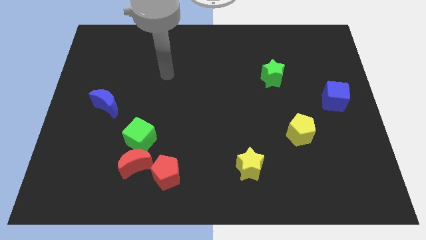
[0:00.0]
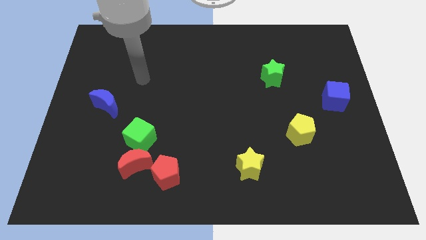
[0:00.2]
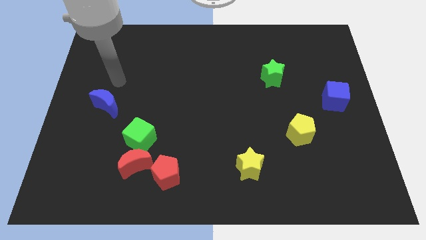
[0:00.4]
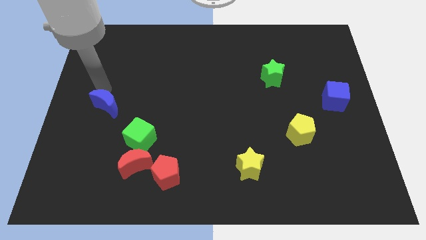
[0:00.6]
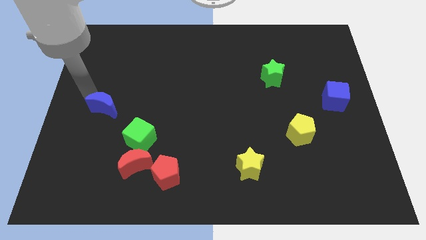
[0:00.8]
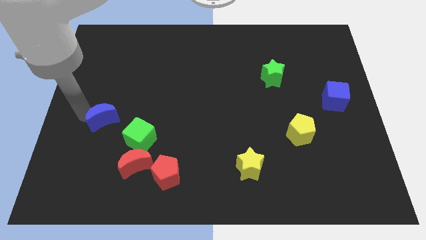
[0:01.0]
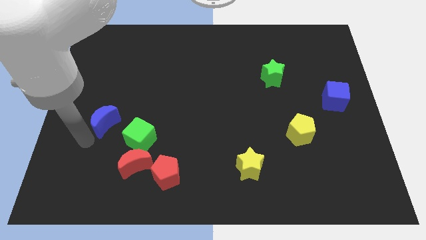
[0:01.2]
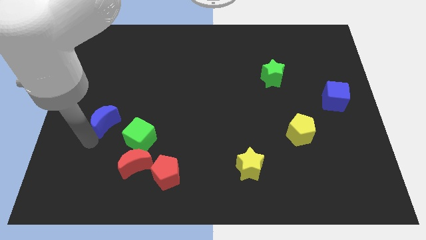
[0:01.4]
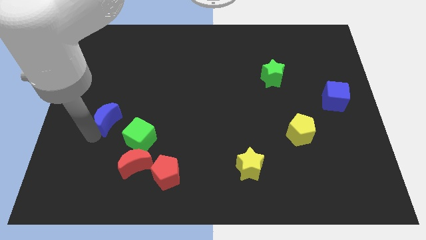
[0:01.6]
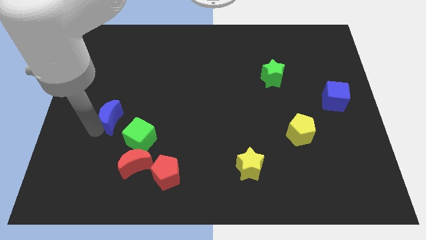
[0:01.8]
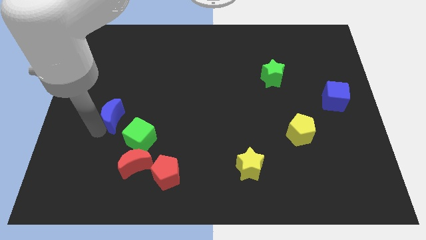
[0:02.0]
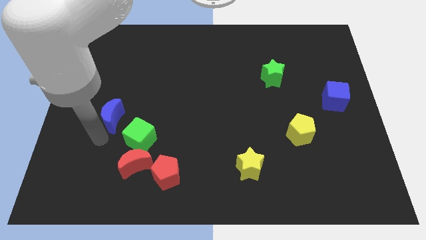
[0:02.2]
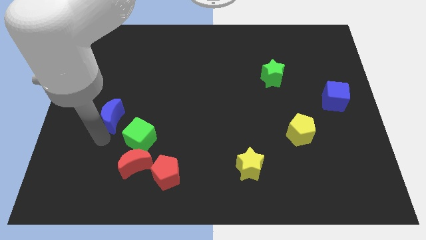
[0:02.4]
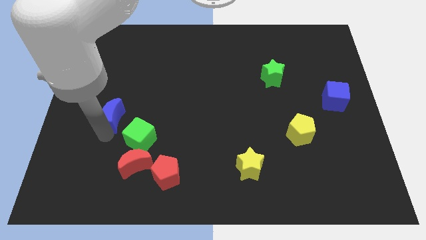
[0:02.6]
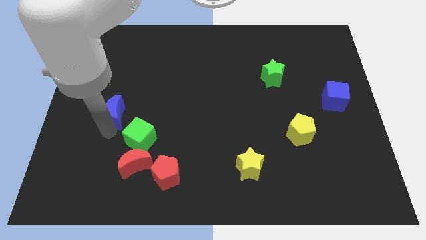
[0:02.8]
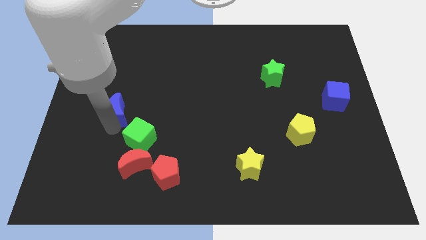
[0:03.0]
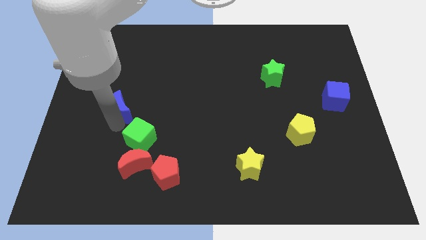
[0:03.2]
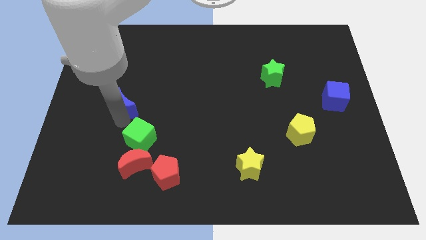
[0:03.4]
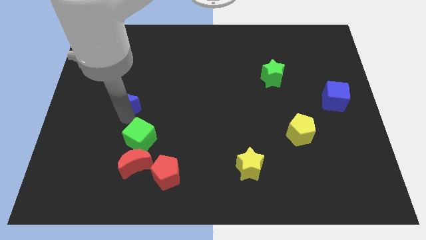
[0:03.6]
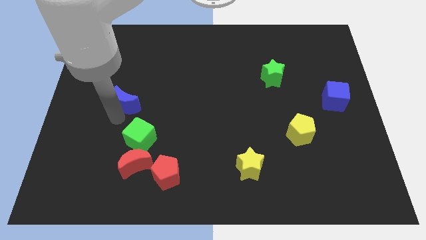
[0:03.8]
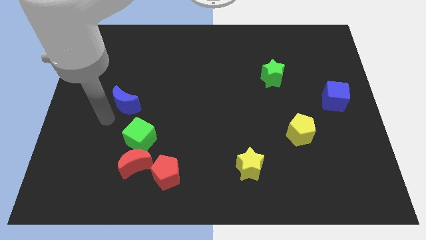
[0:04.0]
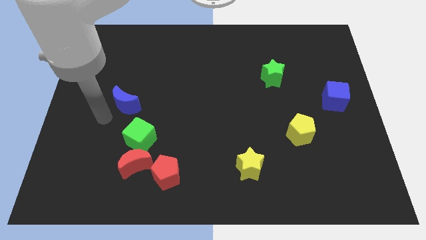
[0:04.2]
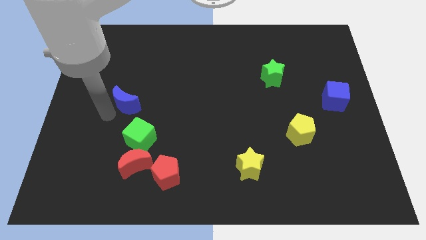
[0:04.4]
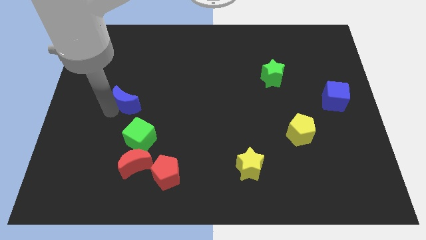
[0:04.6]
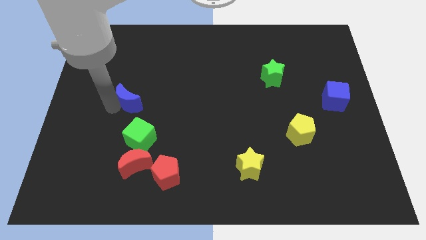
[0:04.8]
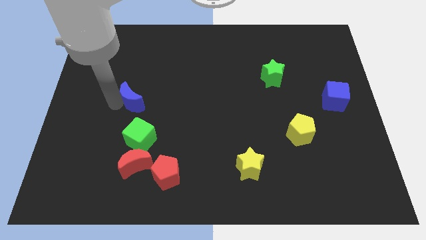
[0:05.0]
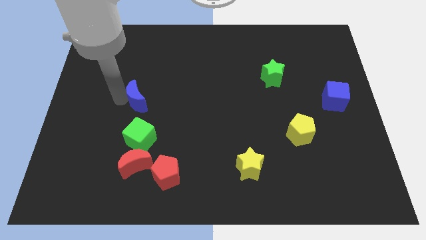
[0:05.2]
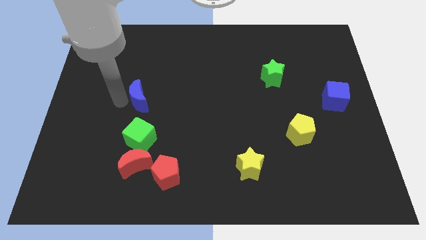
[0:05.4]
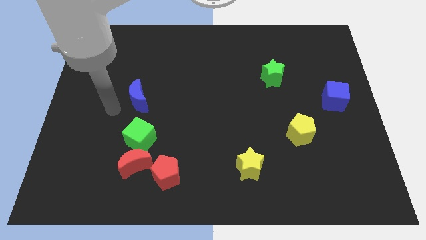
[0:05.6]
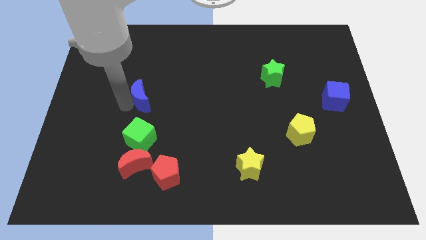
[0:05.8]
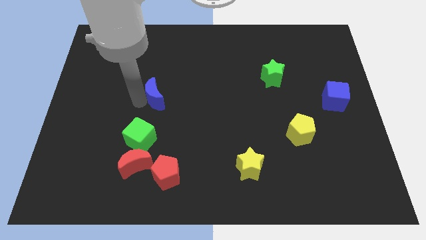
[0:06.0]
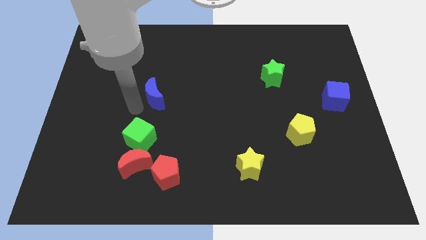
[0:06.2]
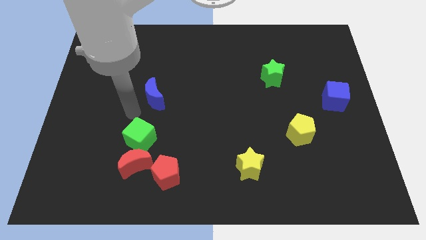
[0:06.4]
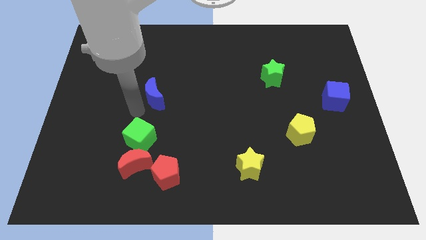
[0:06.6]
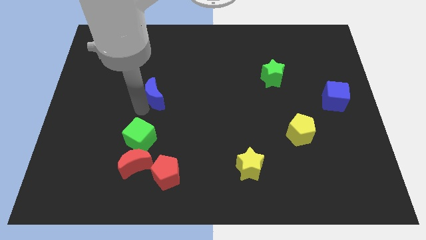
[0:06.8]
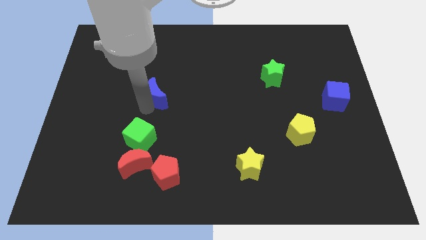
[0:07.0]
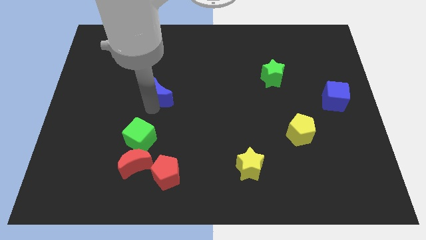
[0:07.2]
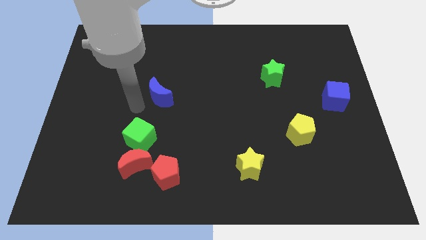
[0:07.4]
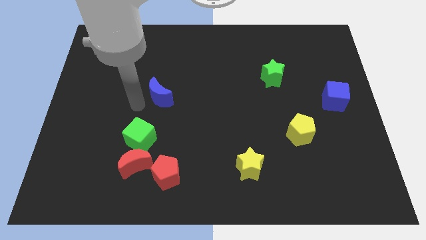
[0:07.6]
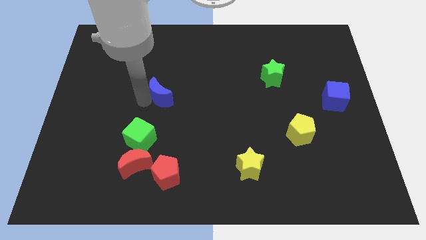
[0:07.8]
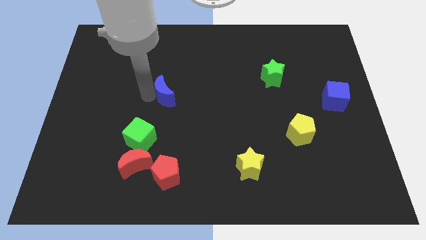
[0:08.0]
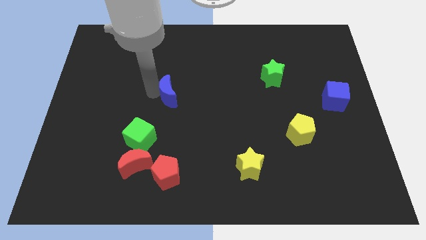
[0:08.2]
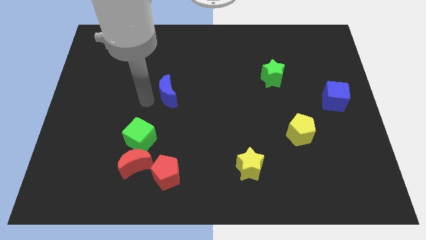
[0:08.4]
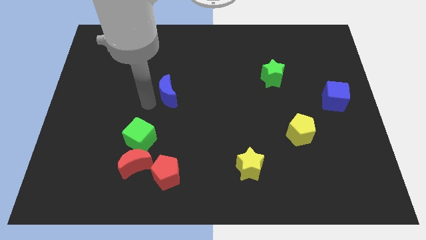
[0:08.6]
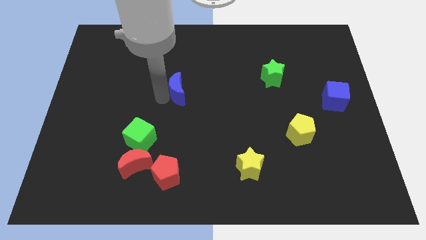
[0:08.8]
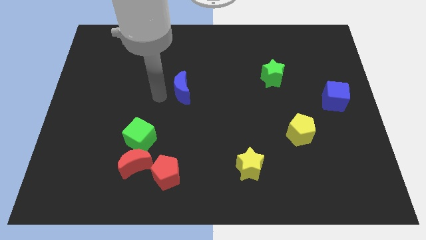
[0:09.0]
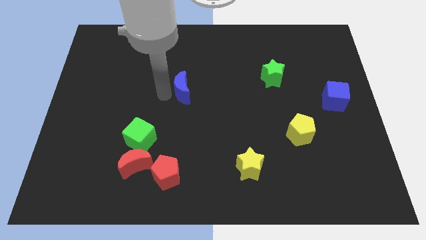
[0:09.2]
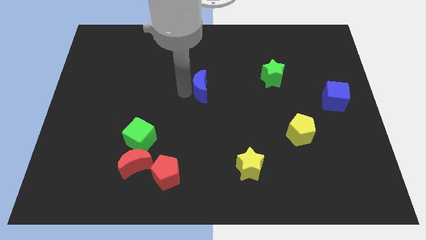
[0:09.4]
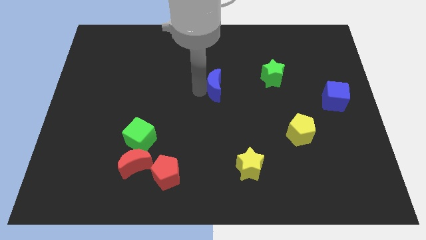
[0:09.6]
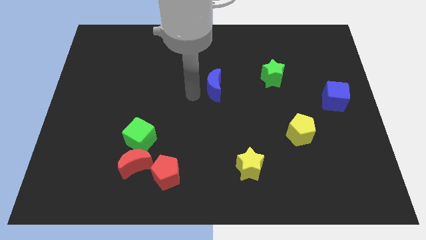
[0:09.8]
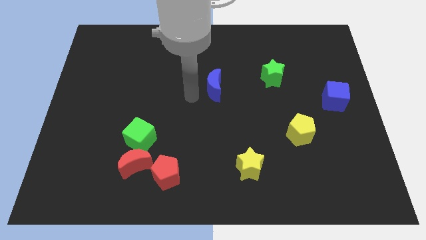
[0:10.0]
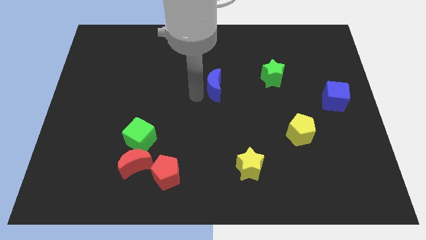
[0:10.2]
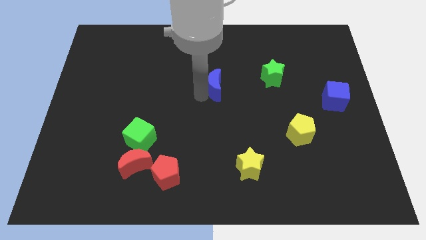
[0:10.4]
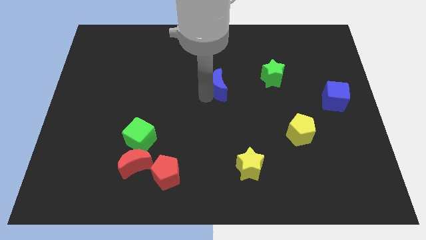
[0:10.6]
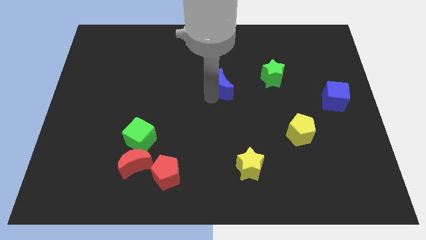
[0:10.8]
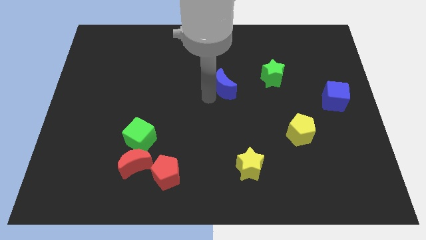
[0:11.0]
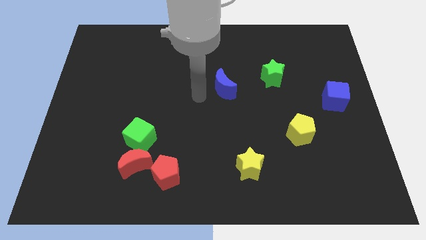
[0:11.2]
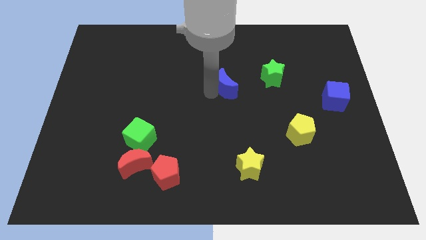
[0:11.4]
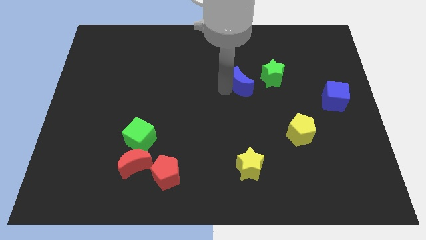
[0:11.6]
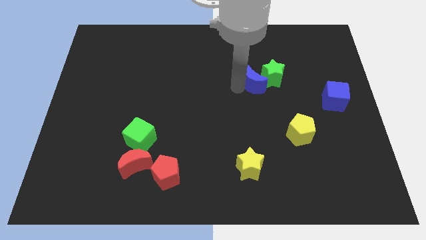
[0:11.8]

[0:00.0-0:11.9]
put the blue moon next to the green star

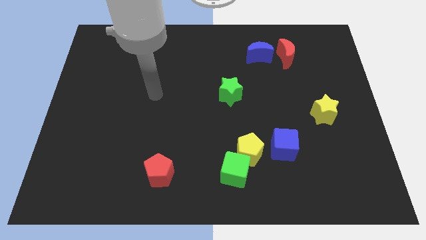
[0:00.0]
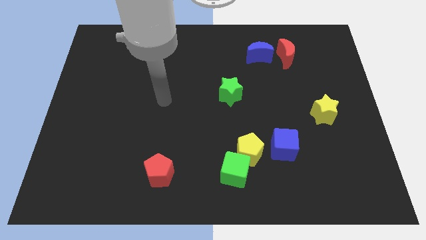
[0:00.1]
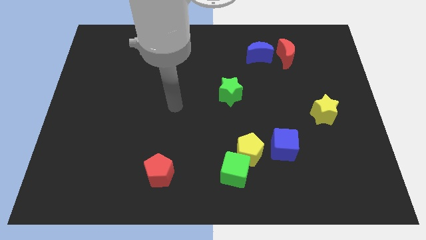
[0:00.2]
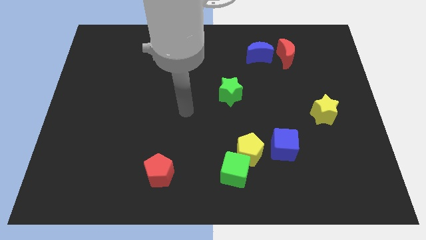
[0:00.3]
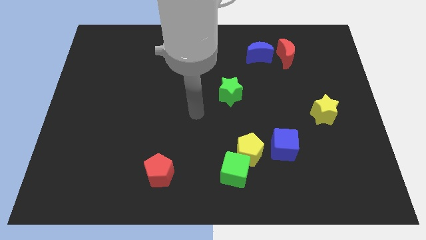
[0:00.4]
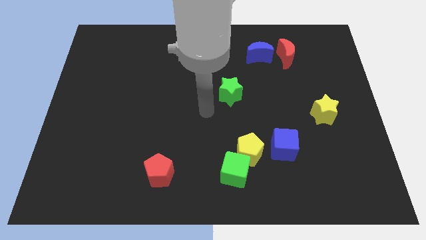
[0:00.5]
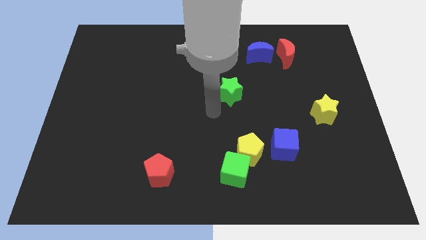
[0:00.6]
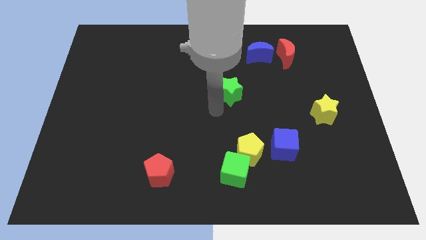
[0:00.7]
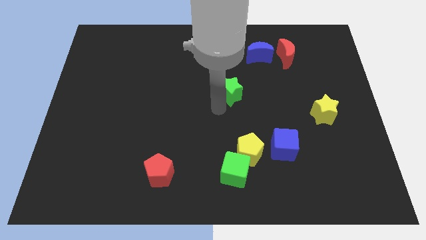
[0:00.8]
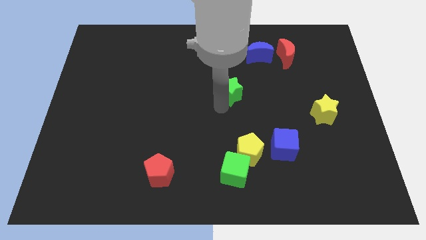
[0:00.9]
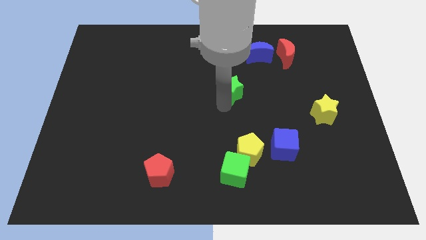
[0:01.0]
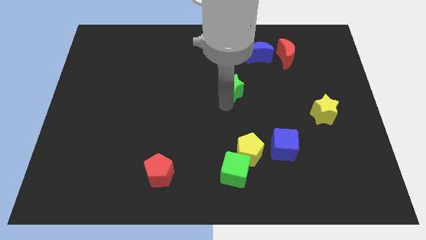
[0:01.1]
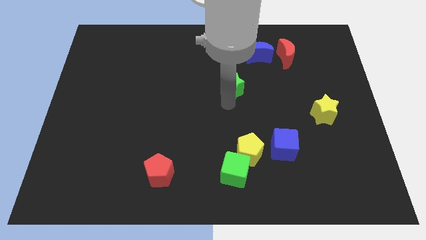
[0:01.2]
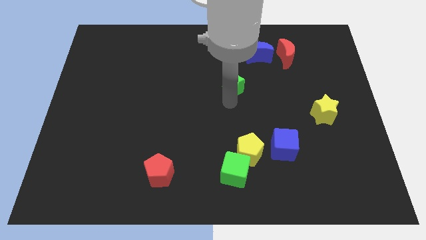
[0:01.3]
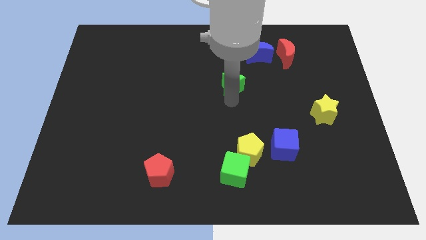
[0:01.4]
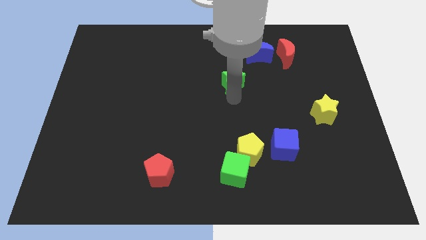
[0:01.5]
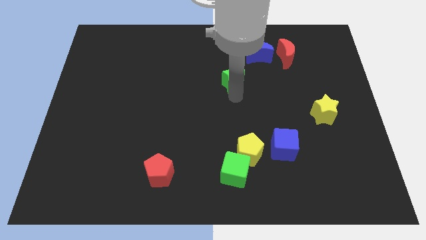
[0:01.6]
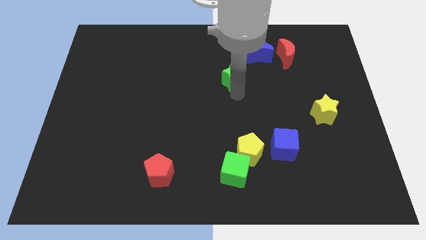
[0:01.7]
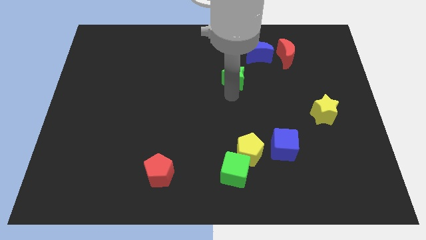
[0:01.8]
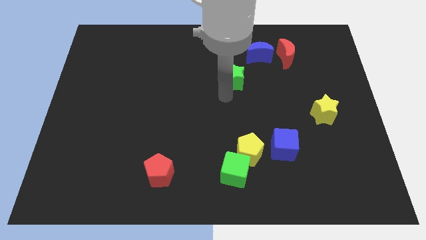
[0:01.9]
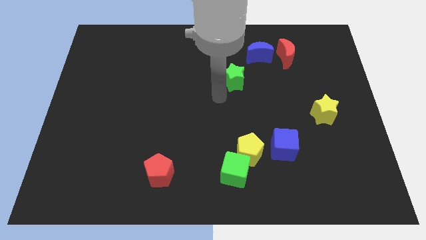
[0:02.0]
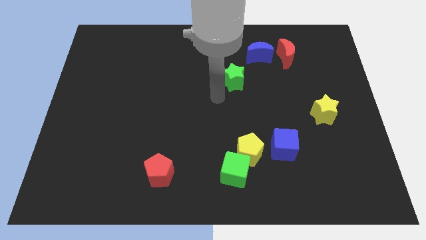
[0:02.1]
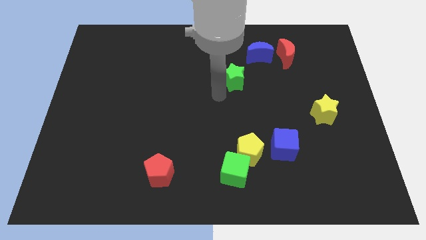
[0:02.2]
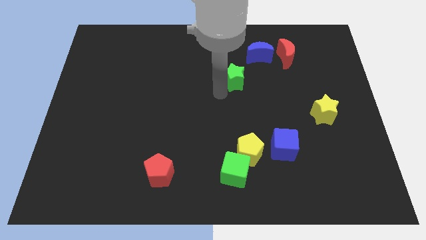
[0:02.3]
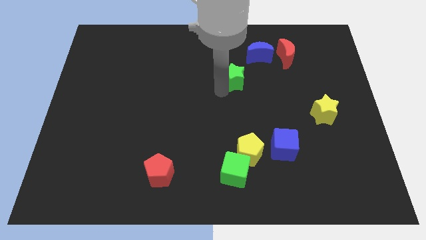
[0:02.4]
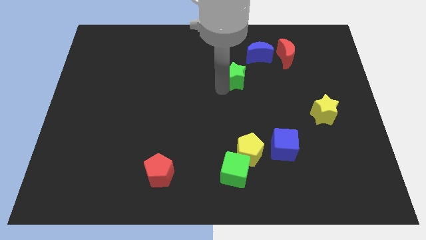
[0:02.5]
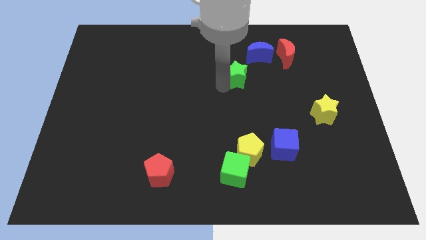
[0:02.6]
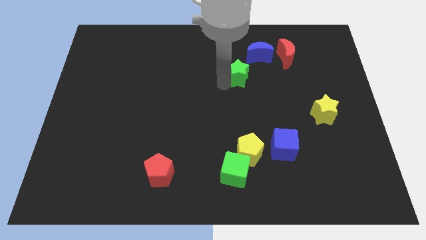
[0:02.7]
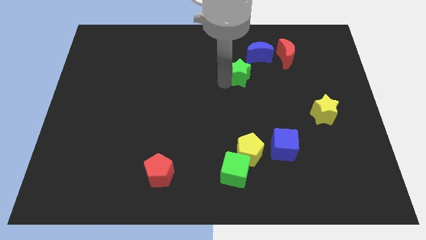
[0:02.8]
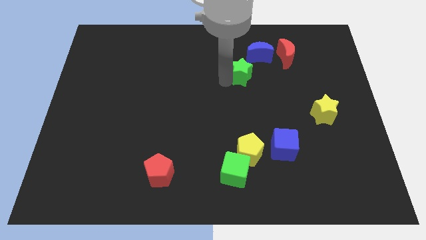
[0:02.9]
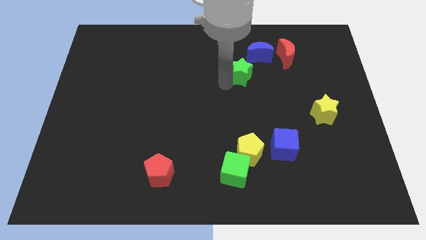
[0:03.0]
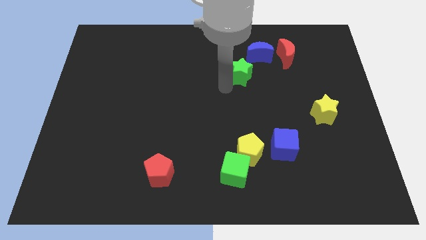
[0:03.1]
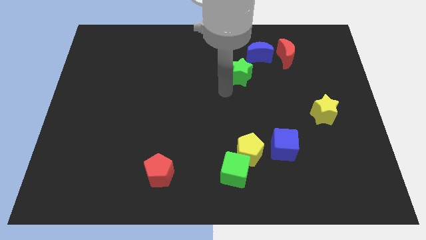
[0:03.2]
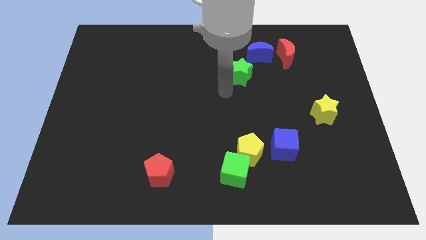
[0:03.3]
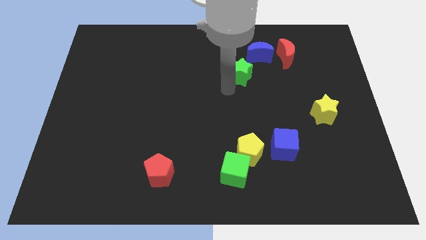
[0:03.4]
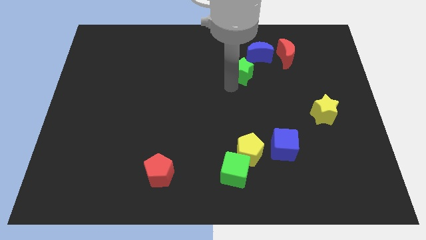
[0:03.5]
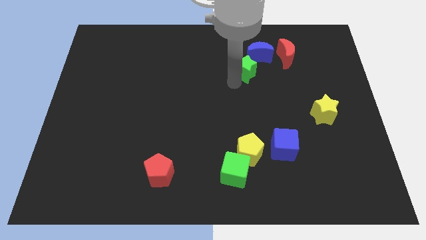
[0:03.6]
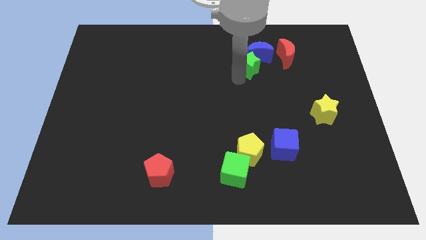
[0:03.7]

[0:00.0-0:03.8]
move the green star to the blue moon
